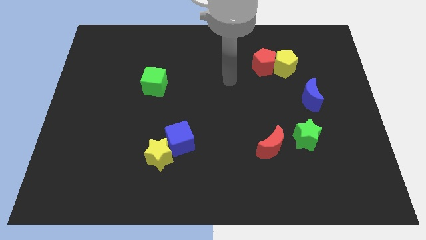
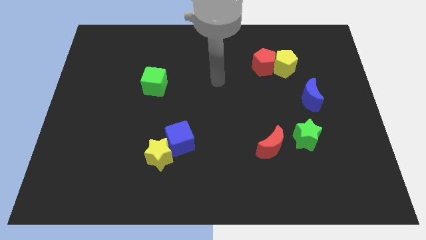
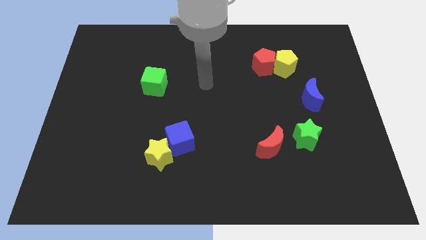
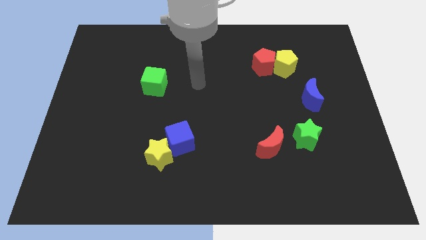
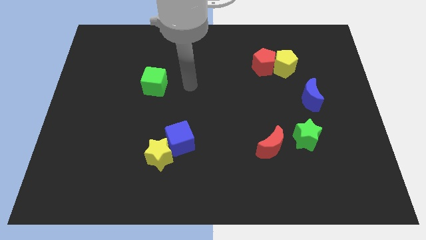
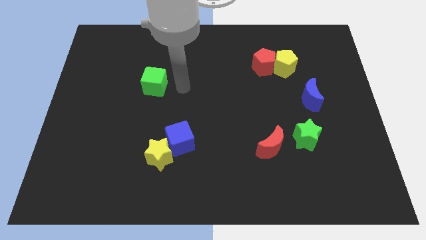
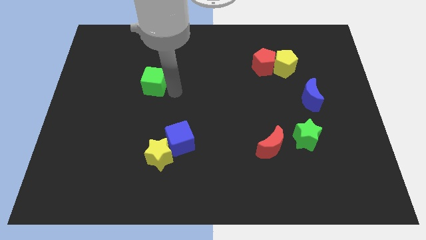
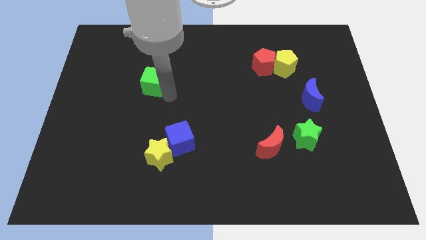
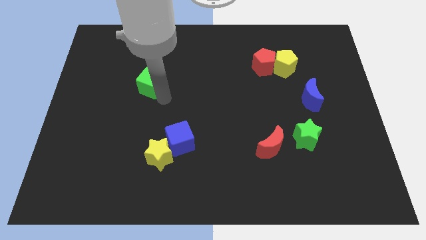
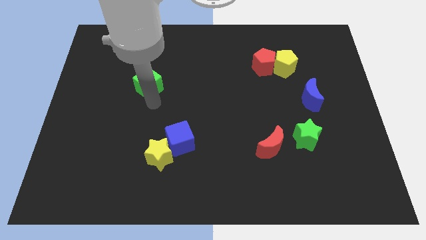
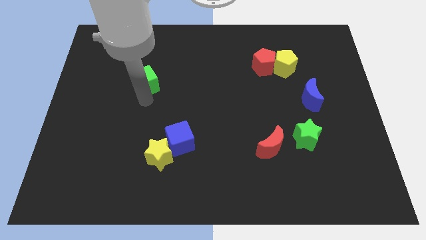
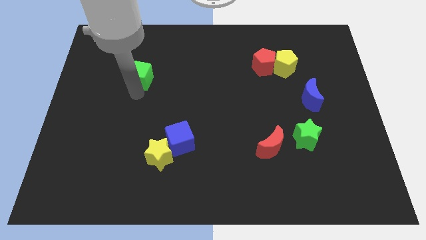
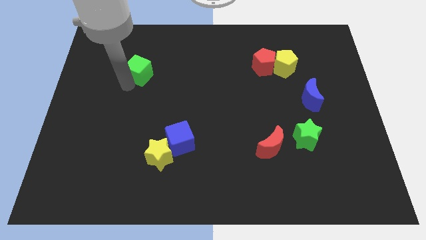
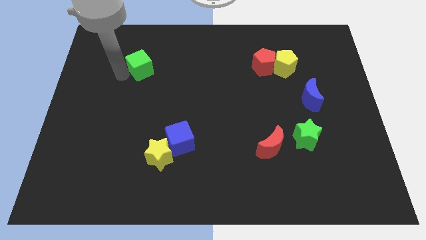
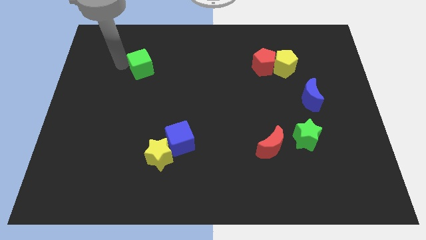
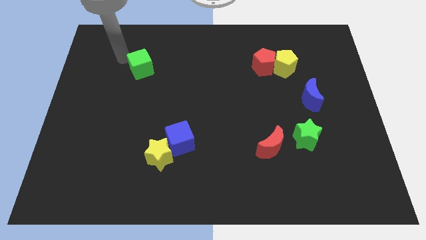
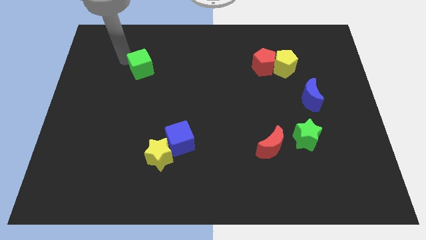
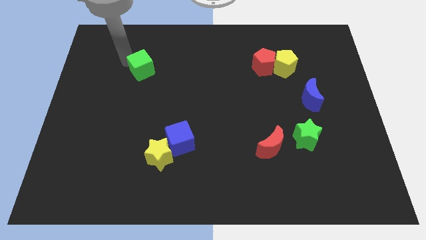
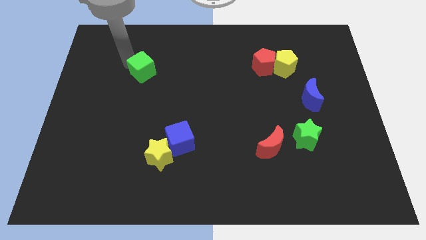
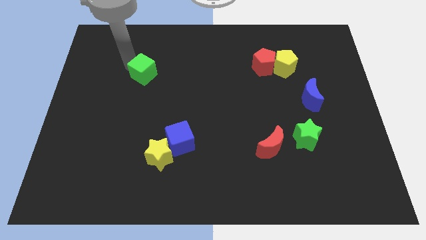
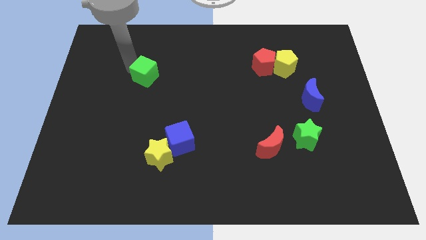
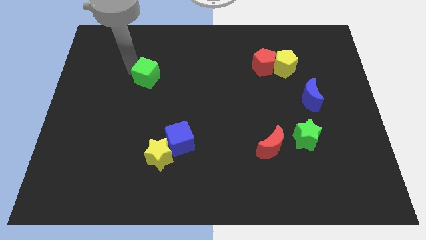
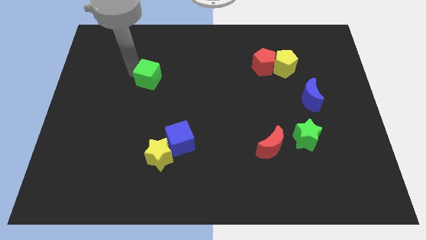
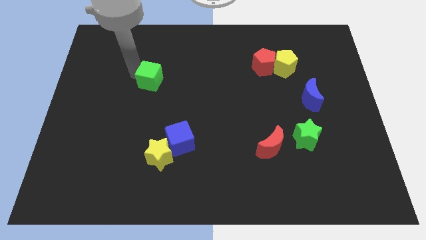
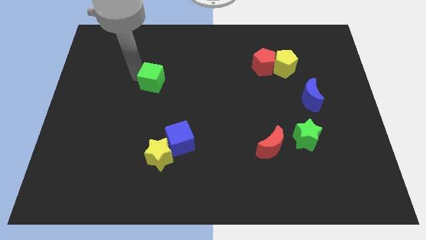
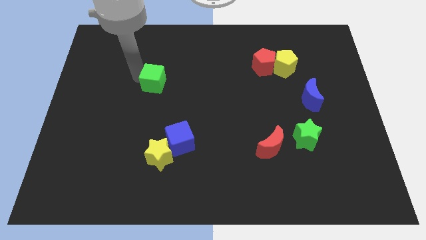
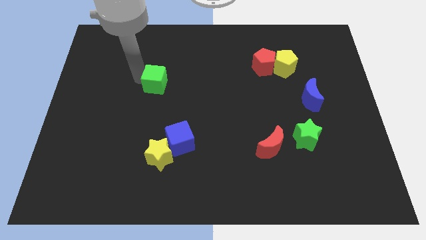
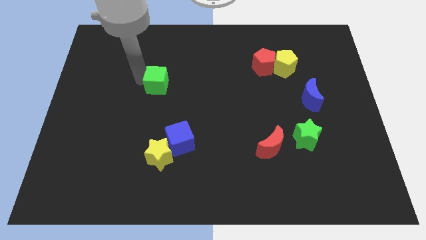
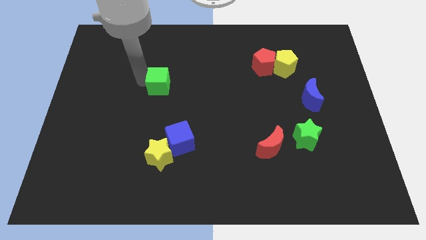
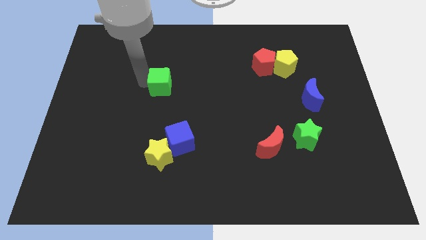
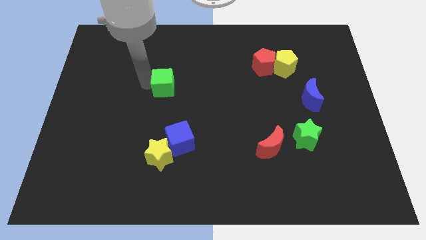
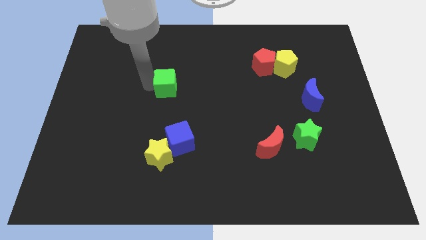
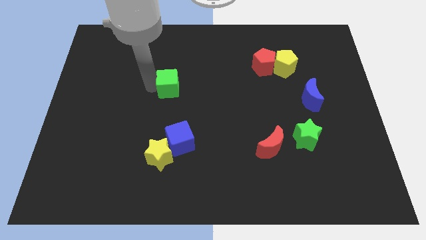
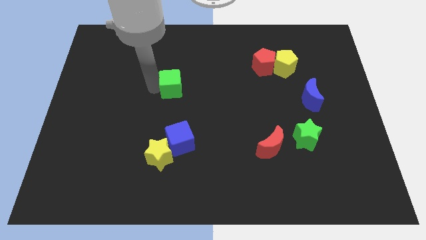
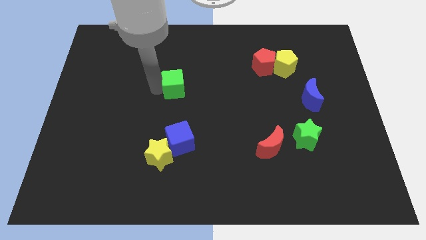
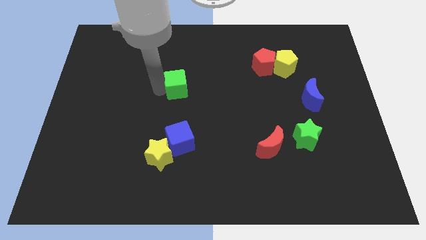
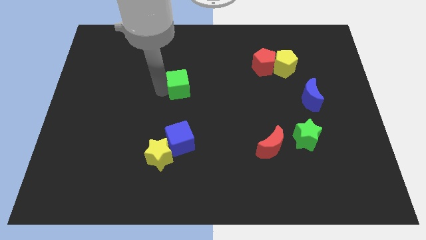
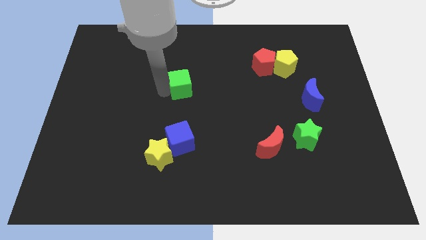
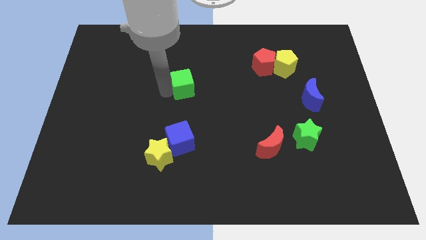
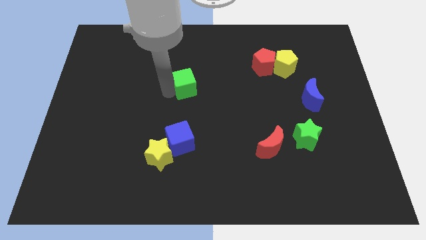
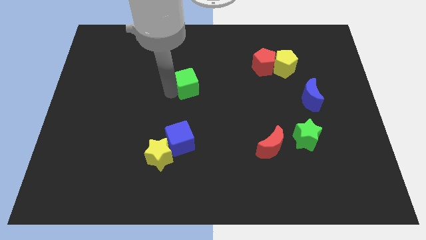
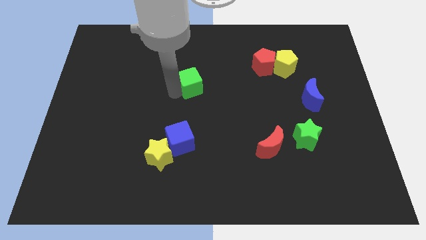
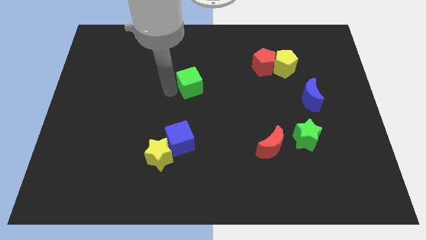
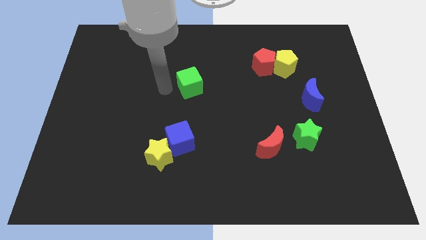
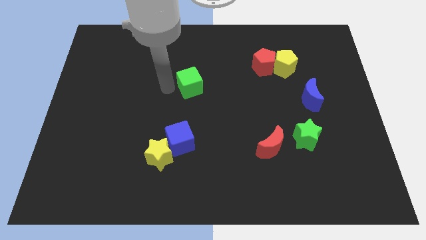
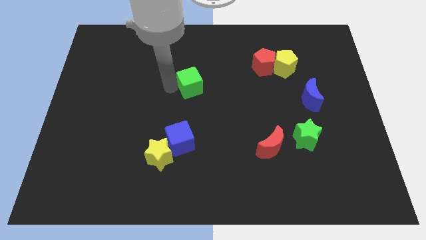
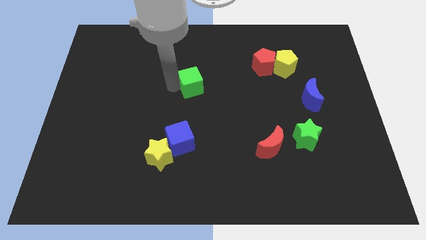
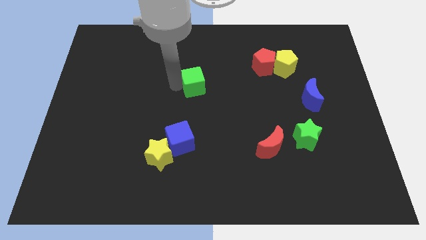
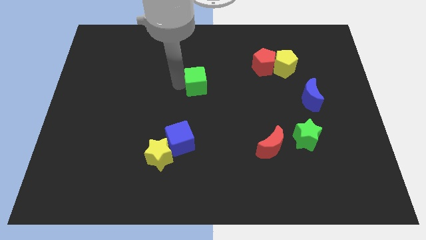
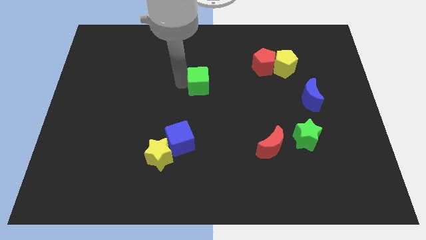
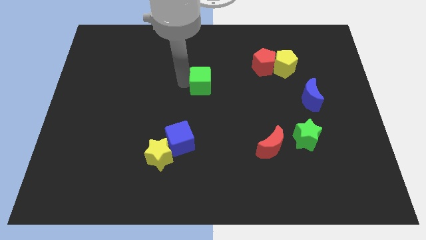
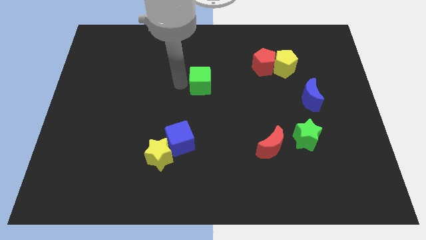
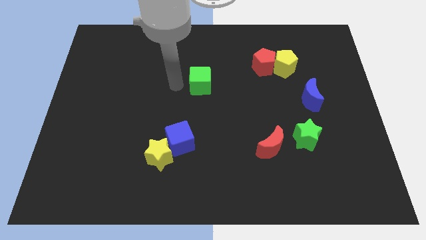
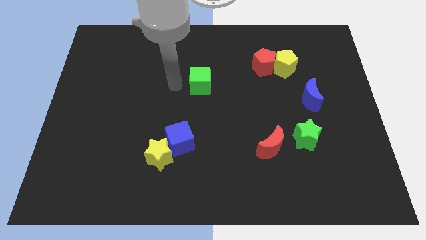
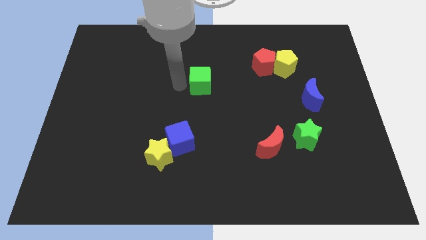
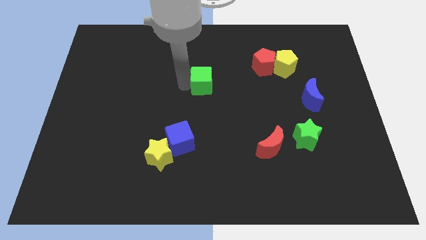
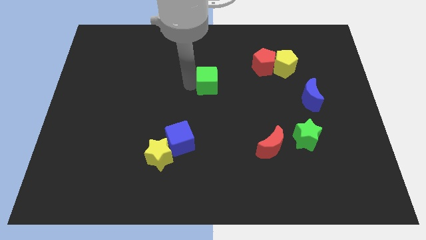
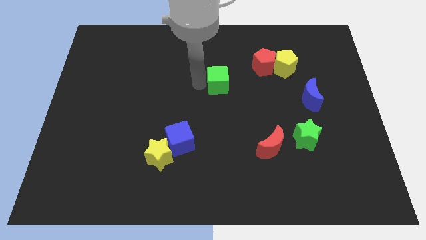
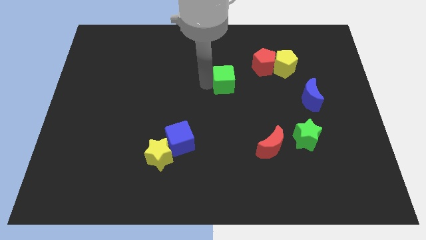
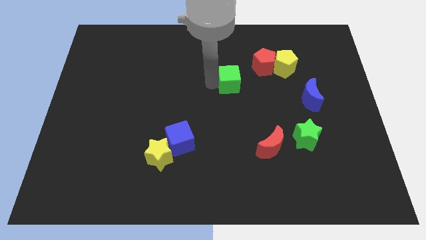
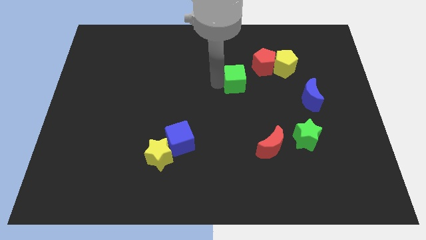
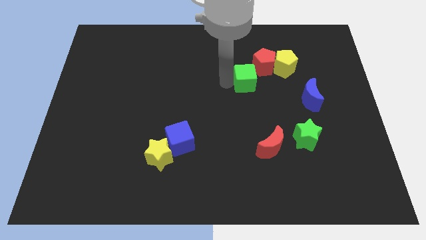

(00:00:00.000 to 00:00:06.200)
put the green cube to the bottom left side of the yellow pentagon

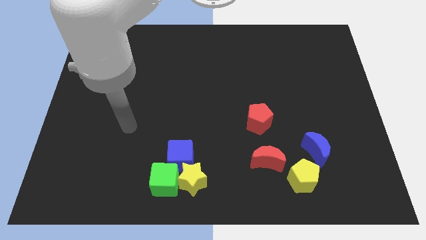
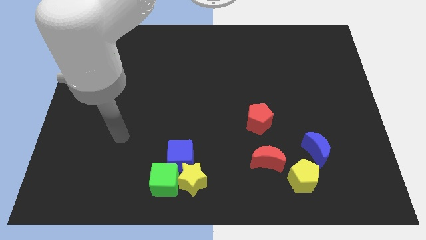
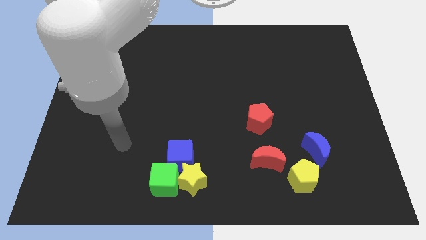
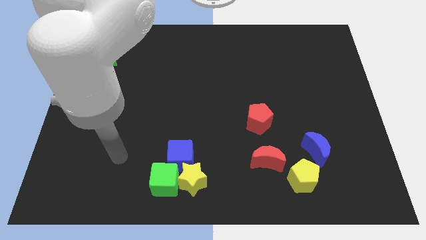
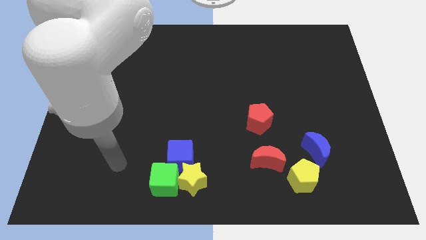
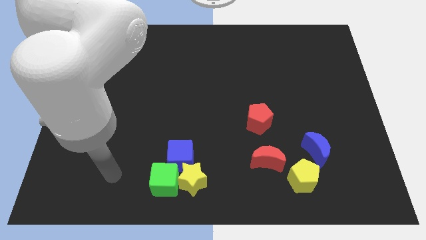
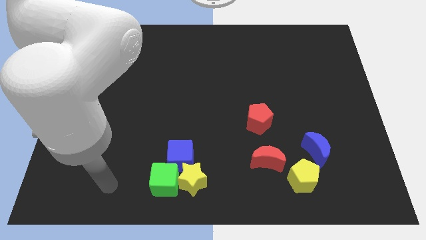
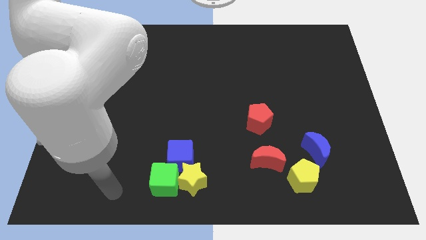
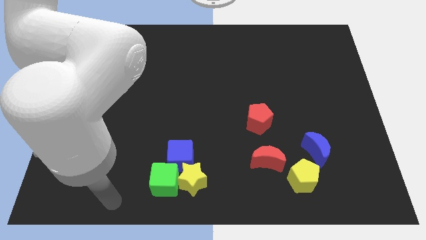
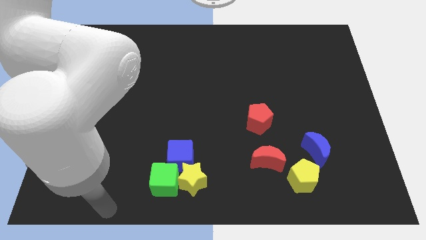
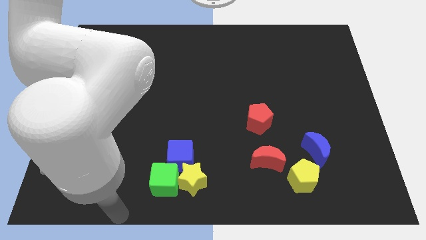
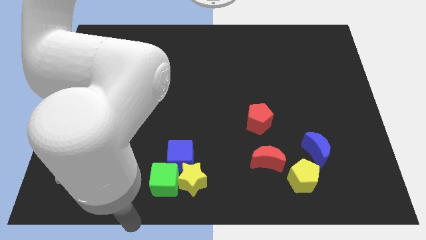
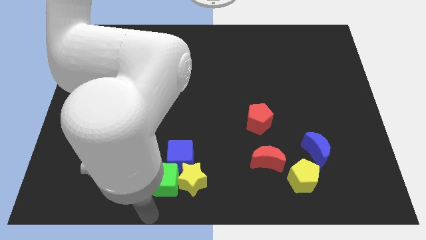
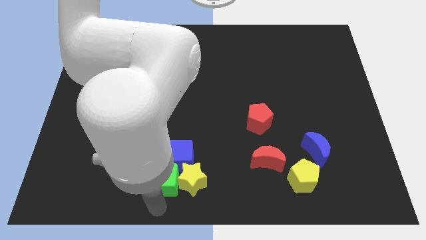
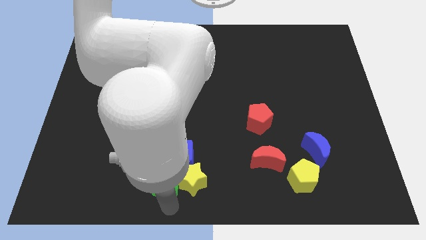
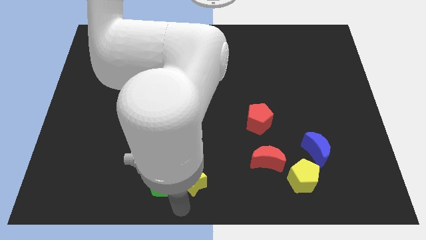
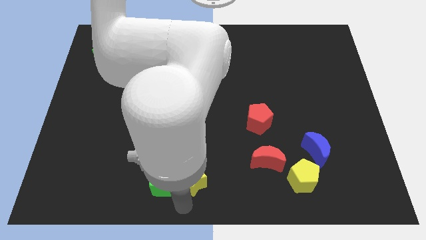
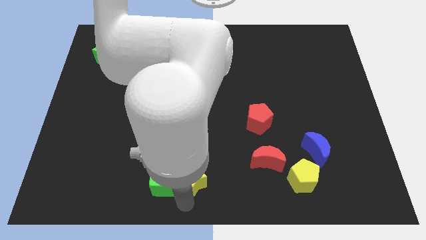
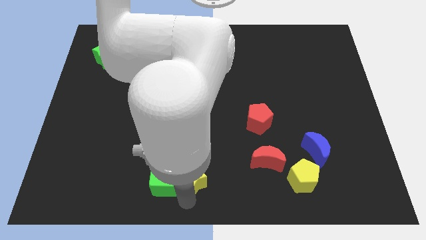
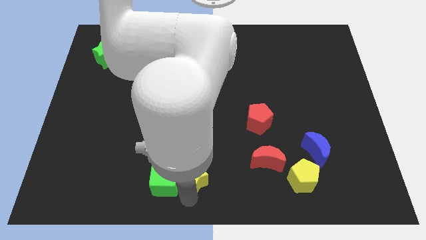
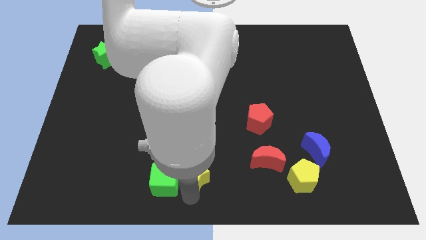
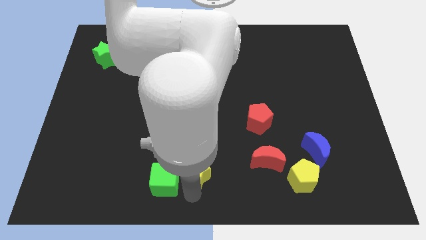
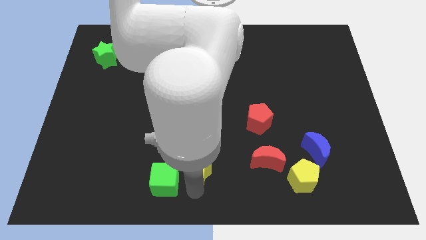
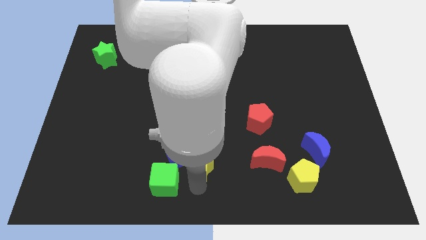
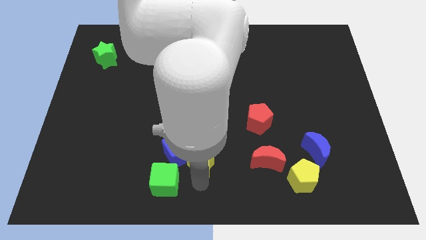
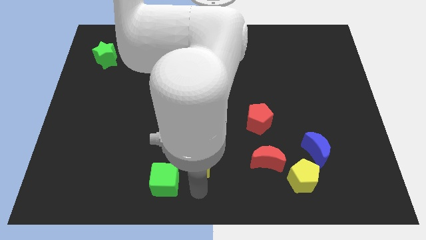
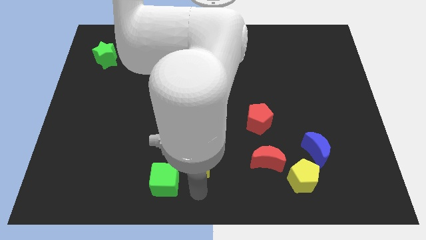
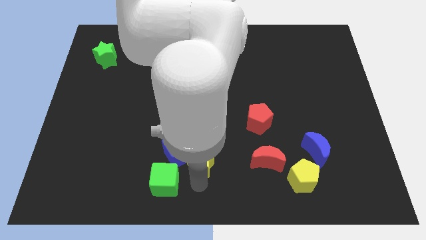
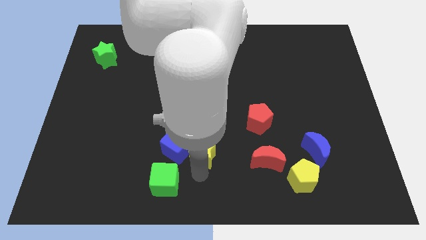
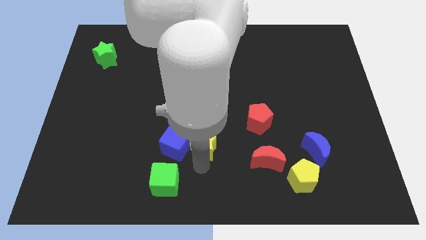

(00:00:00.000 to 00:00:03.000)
slide the yellow star to the top right side of the blue cube
